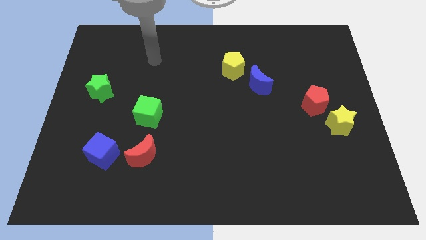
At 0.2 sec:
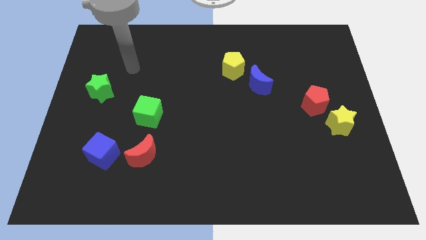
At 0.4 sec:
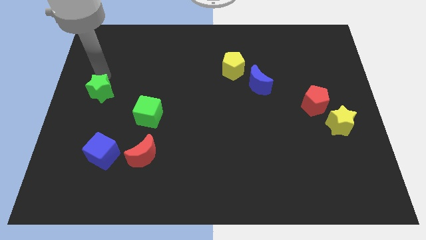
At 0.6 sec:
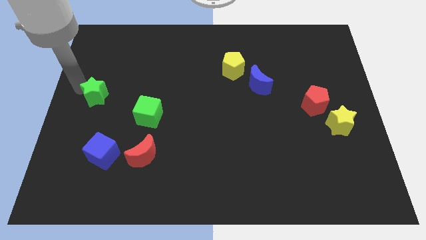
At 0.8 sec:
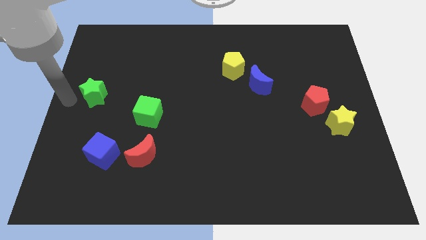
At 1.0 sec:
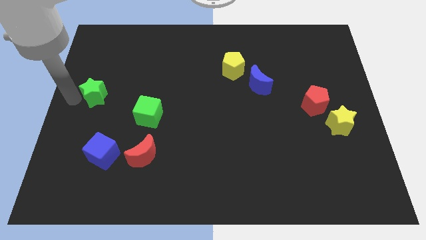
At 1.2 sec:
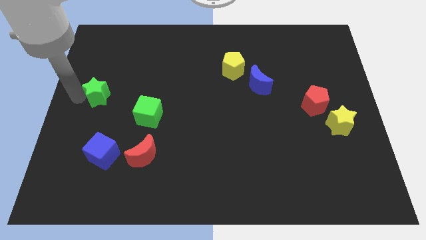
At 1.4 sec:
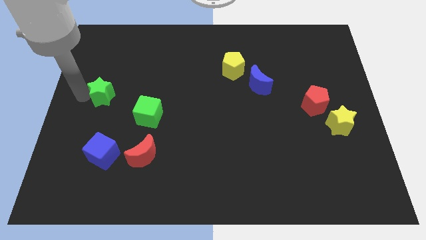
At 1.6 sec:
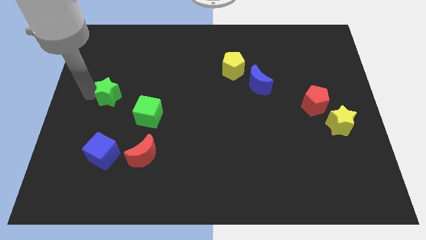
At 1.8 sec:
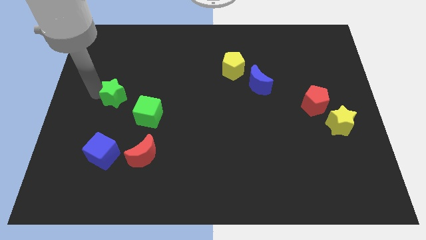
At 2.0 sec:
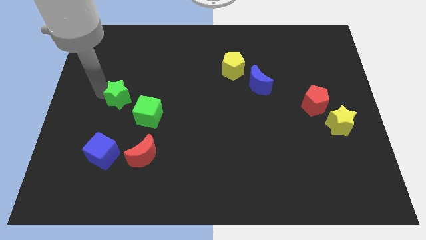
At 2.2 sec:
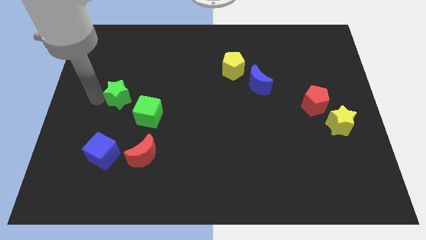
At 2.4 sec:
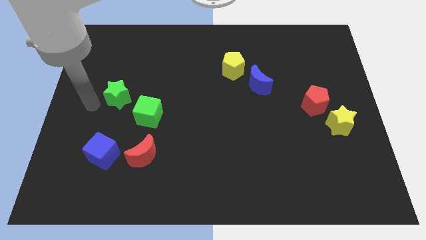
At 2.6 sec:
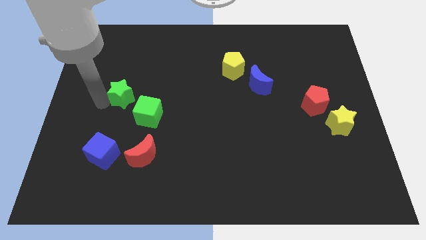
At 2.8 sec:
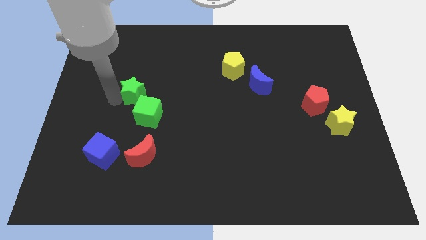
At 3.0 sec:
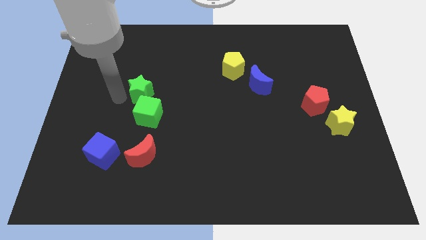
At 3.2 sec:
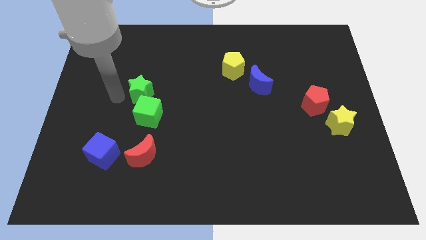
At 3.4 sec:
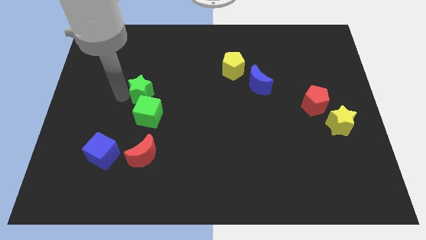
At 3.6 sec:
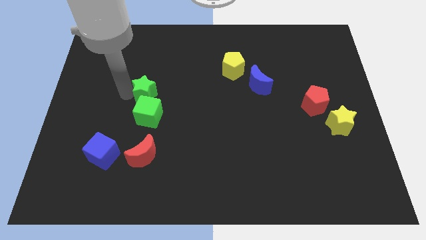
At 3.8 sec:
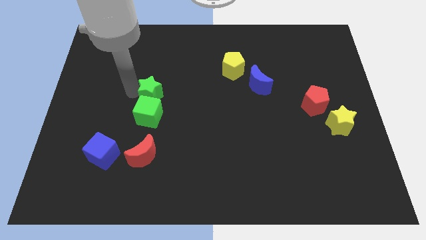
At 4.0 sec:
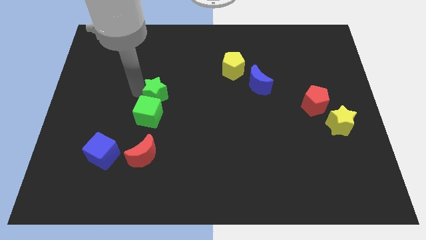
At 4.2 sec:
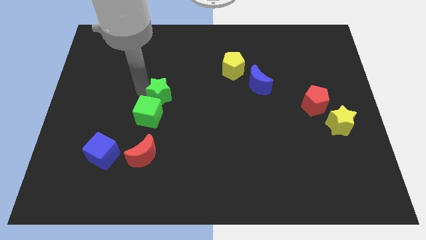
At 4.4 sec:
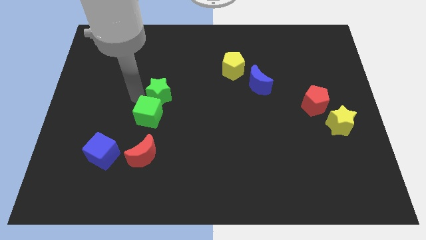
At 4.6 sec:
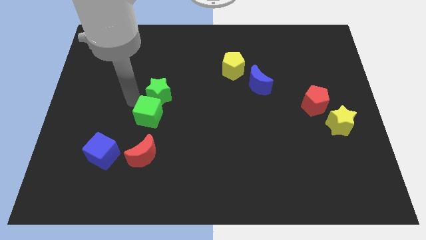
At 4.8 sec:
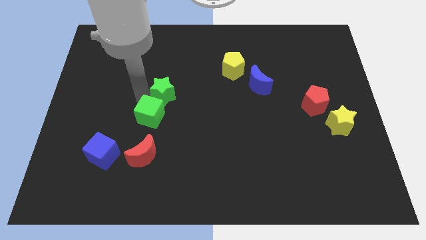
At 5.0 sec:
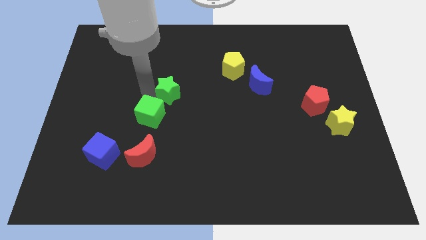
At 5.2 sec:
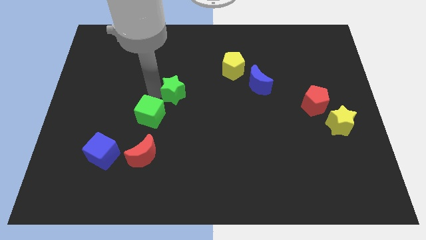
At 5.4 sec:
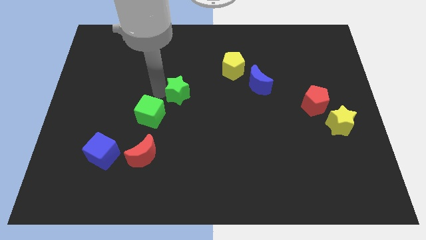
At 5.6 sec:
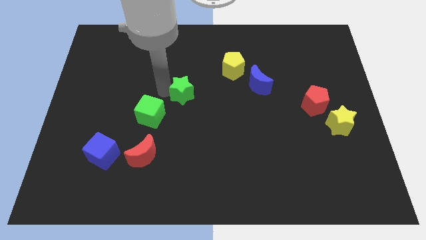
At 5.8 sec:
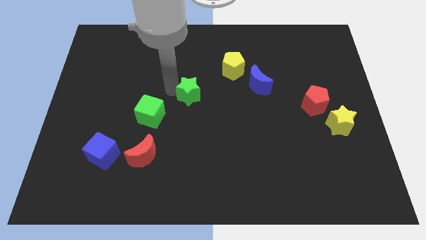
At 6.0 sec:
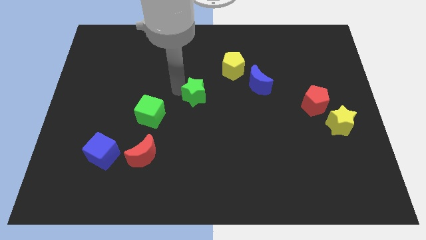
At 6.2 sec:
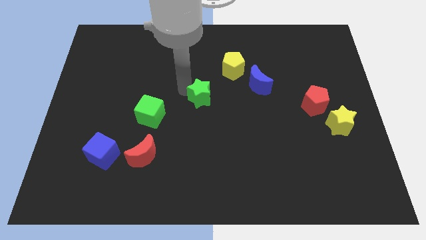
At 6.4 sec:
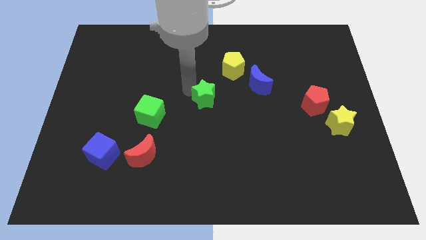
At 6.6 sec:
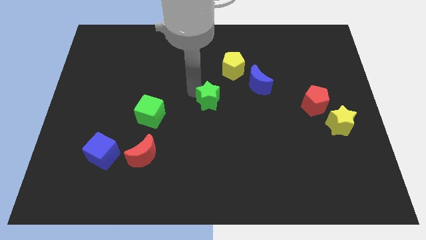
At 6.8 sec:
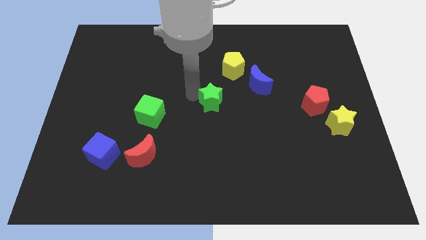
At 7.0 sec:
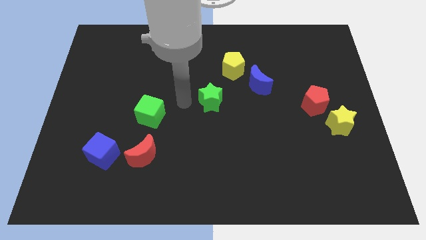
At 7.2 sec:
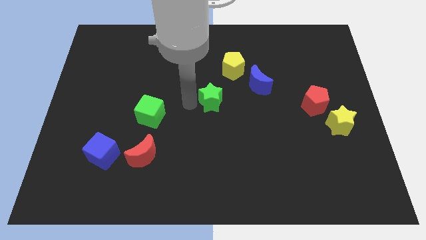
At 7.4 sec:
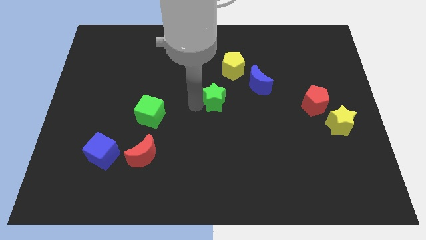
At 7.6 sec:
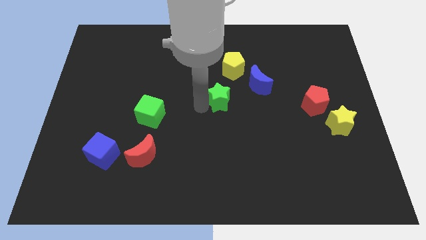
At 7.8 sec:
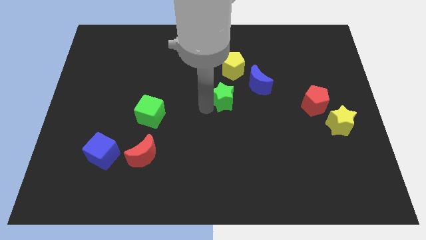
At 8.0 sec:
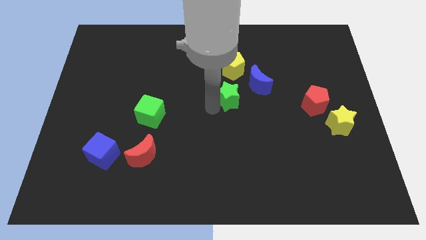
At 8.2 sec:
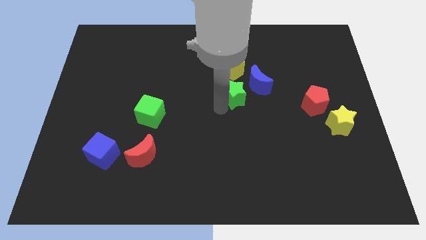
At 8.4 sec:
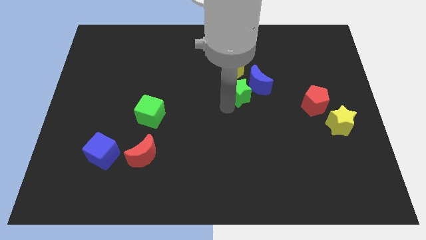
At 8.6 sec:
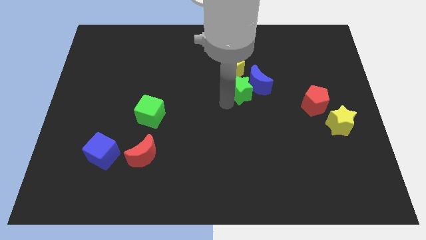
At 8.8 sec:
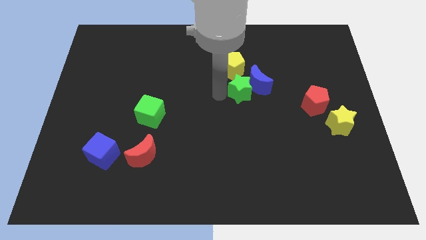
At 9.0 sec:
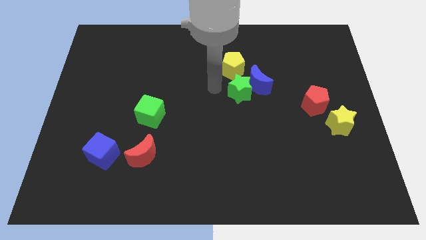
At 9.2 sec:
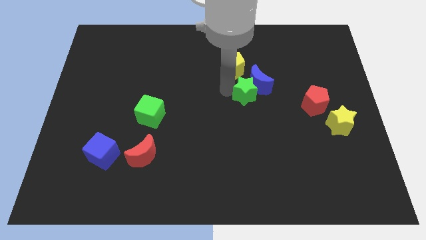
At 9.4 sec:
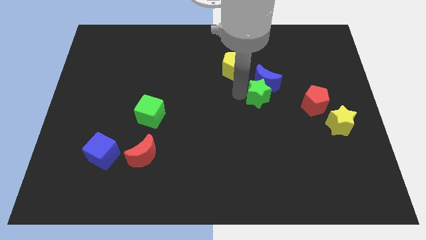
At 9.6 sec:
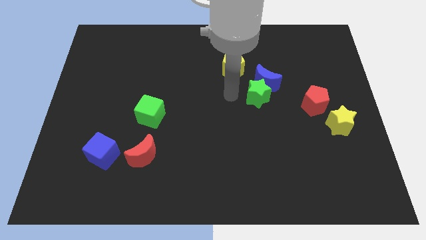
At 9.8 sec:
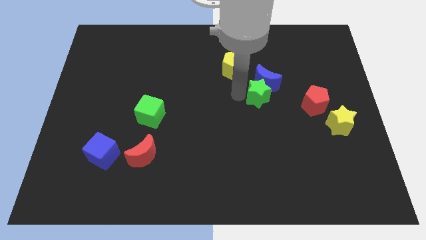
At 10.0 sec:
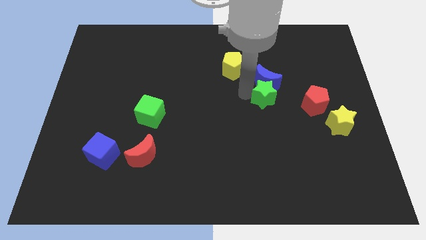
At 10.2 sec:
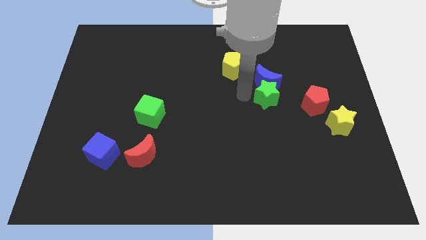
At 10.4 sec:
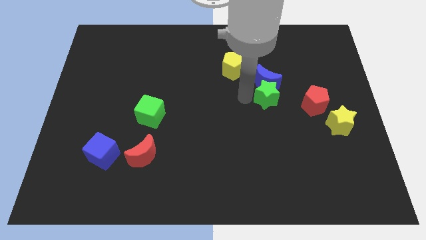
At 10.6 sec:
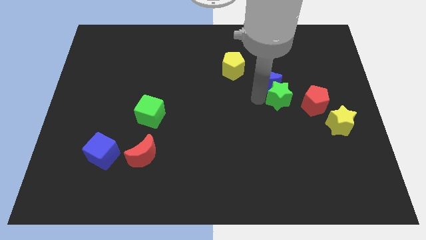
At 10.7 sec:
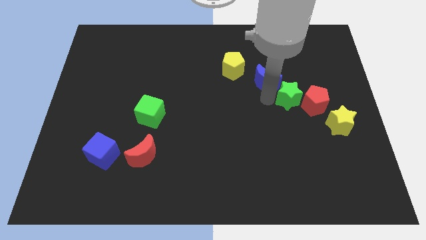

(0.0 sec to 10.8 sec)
put the green star close to the red pentagon

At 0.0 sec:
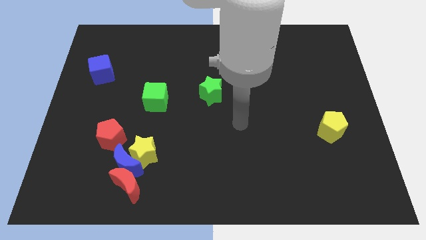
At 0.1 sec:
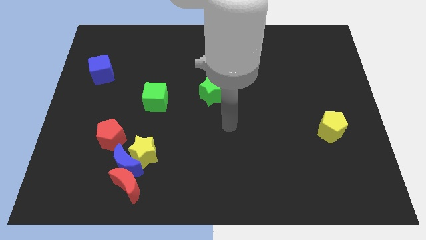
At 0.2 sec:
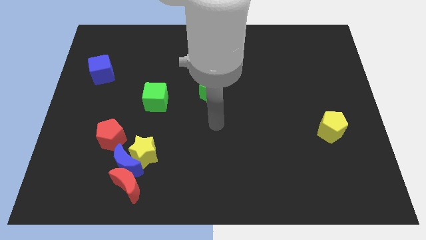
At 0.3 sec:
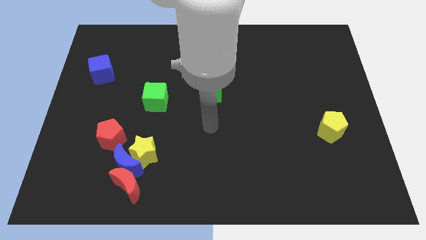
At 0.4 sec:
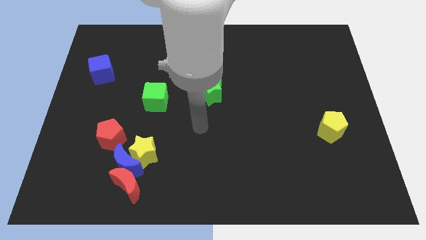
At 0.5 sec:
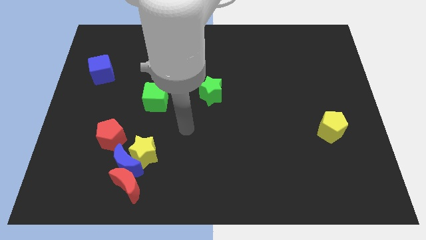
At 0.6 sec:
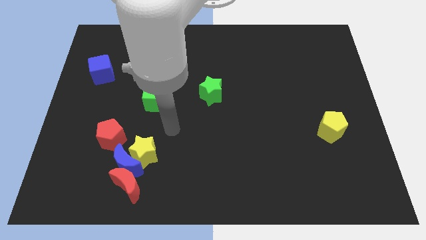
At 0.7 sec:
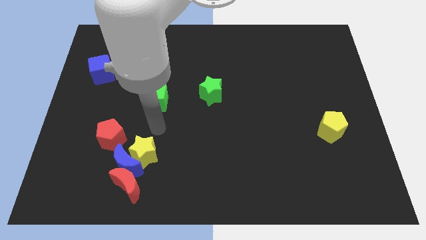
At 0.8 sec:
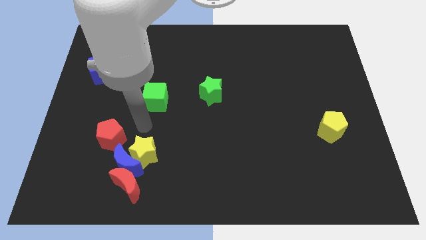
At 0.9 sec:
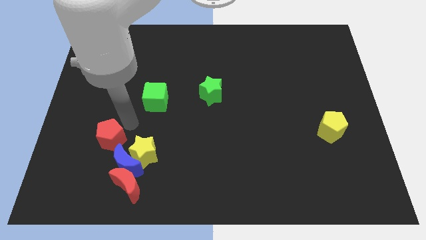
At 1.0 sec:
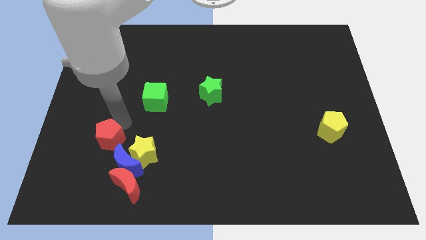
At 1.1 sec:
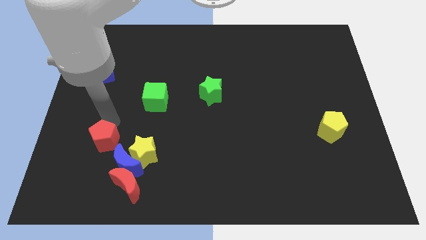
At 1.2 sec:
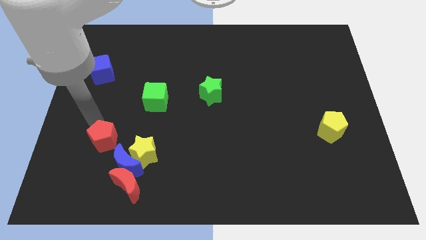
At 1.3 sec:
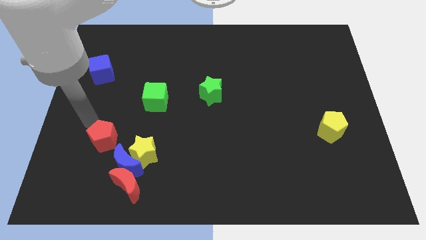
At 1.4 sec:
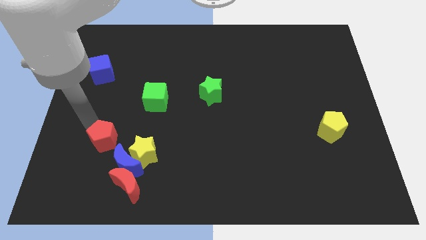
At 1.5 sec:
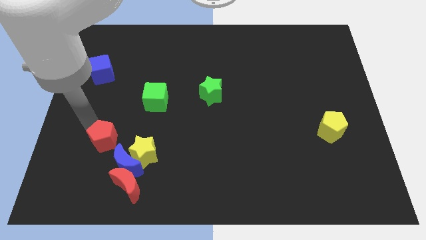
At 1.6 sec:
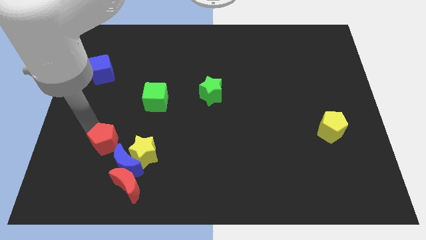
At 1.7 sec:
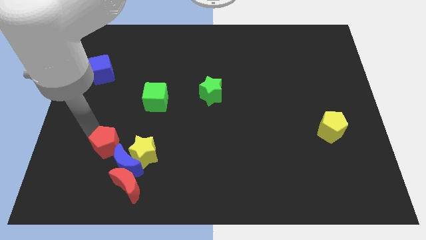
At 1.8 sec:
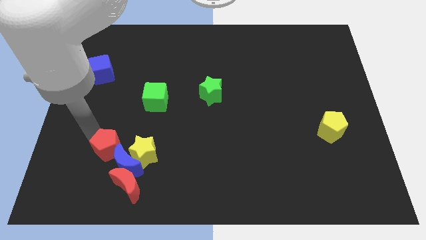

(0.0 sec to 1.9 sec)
slide the red pentagon towards the blue moon
